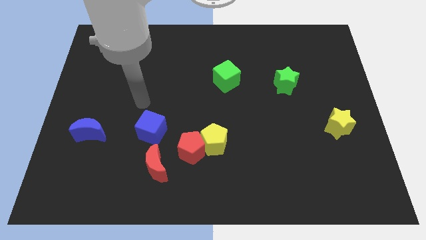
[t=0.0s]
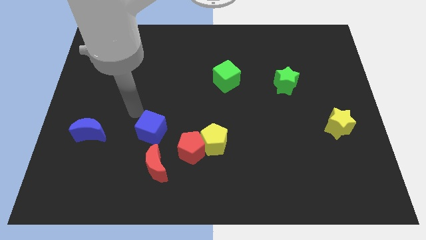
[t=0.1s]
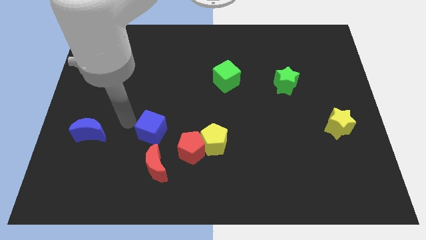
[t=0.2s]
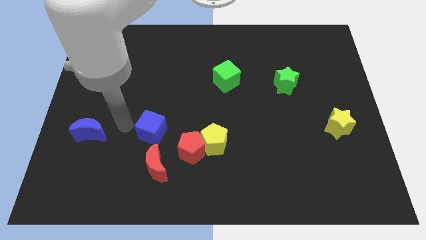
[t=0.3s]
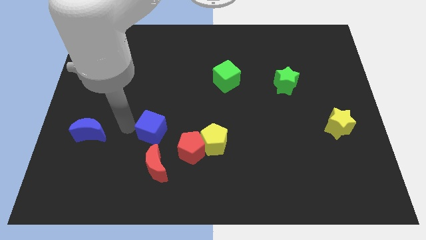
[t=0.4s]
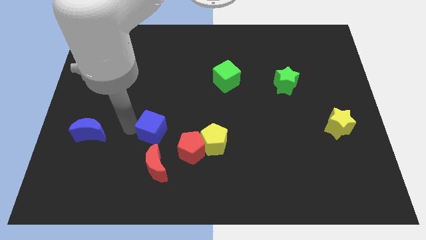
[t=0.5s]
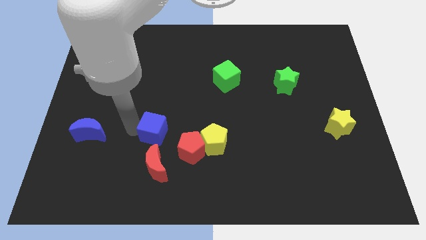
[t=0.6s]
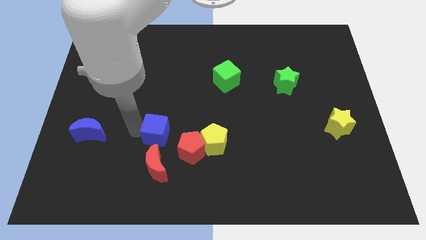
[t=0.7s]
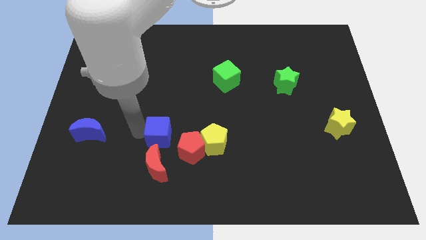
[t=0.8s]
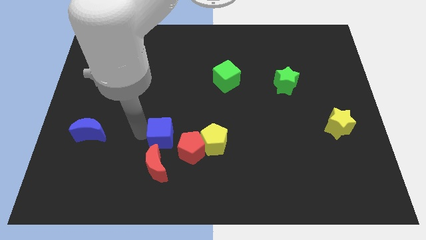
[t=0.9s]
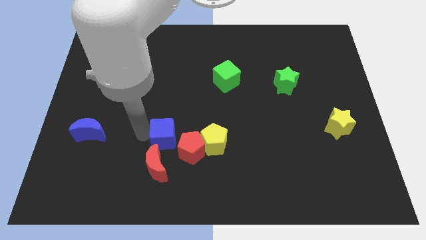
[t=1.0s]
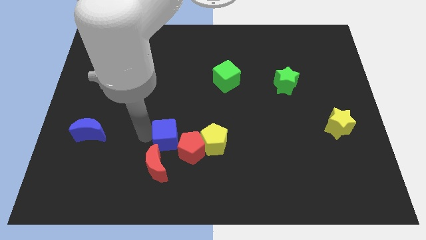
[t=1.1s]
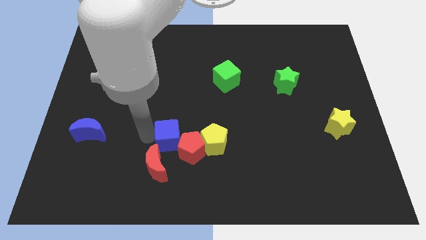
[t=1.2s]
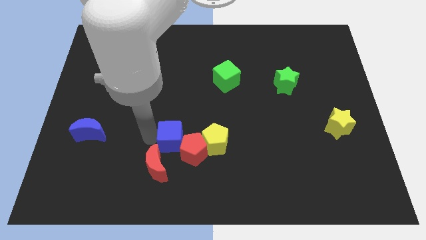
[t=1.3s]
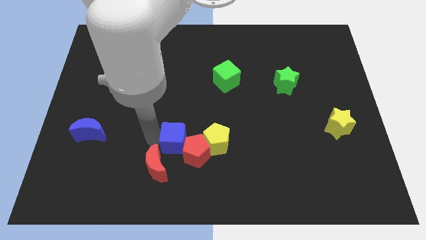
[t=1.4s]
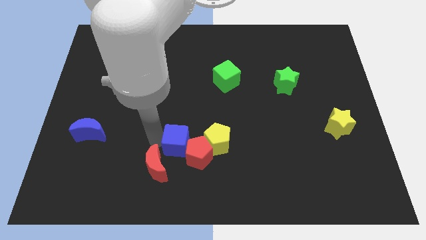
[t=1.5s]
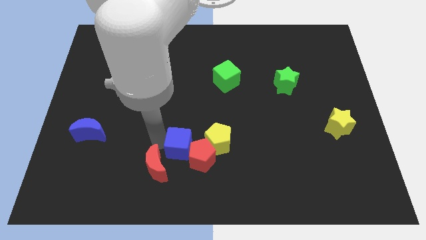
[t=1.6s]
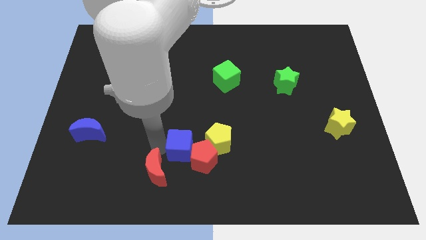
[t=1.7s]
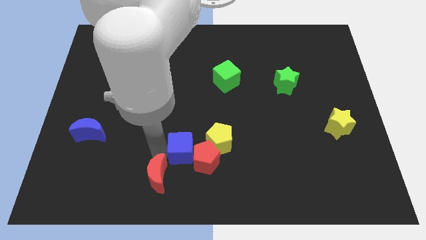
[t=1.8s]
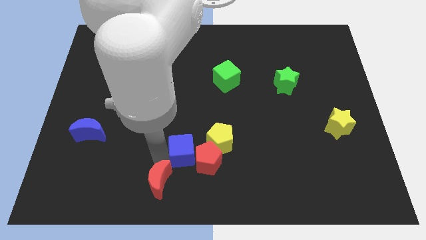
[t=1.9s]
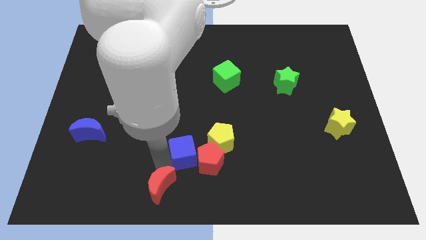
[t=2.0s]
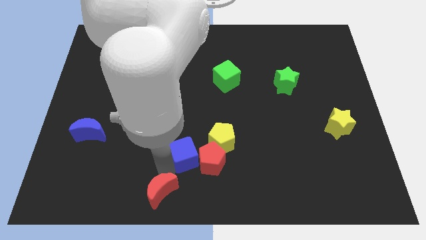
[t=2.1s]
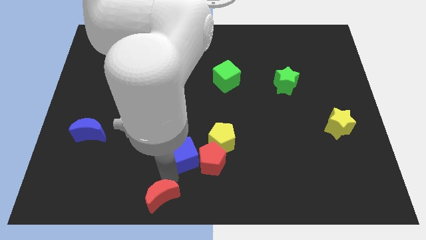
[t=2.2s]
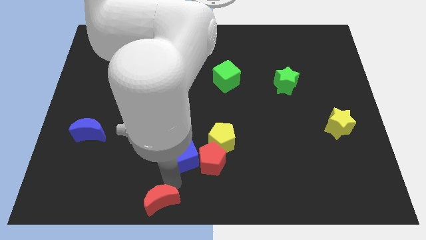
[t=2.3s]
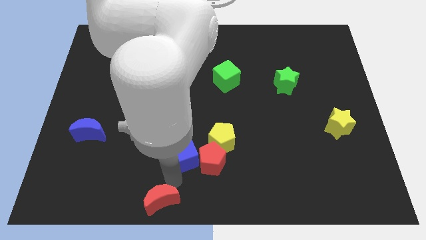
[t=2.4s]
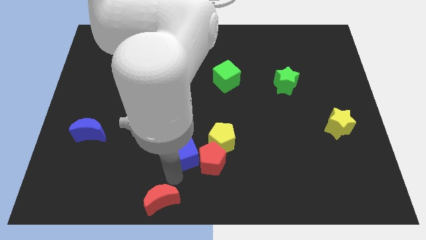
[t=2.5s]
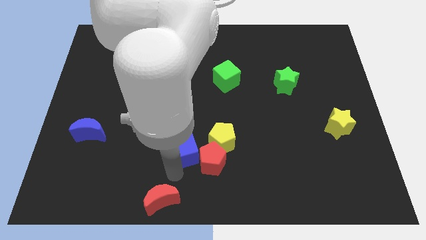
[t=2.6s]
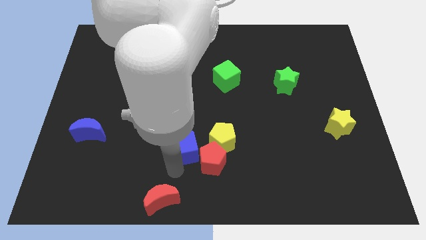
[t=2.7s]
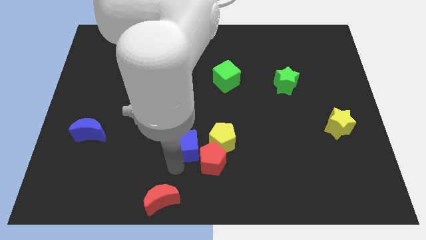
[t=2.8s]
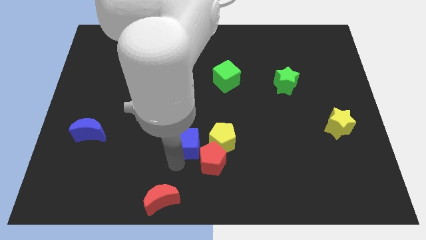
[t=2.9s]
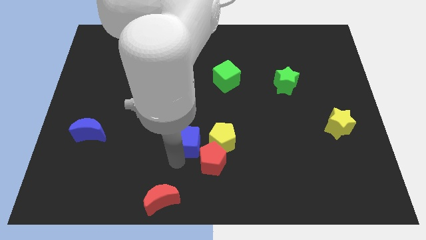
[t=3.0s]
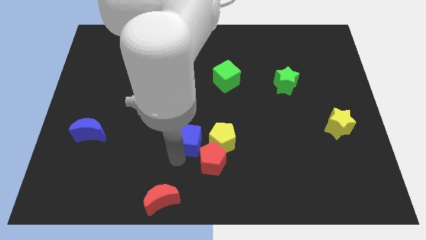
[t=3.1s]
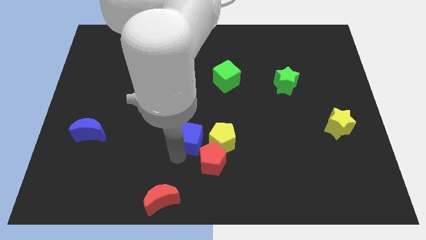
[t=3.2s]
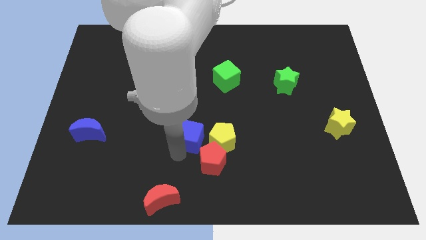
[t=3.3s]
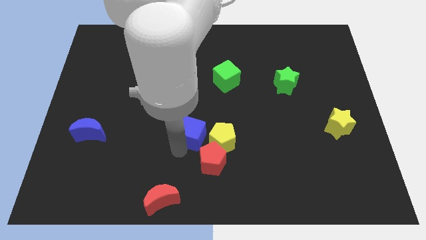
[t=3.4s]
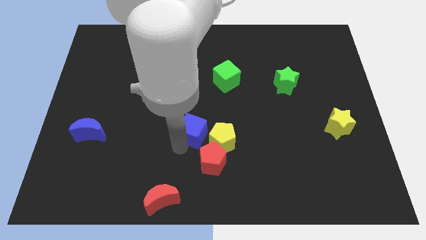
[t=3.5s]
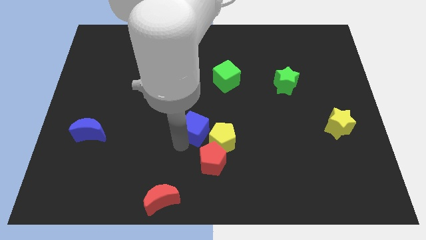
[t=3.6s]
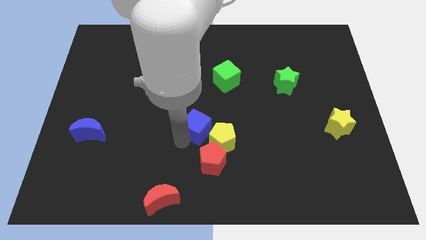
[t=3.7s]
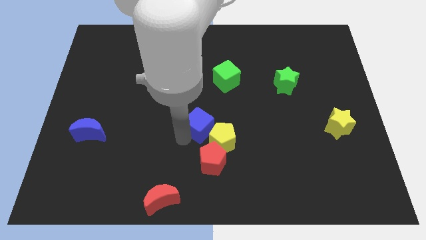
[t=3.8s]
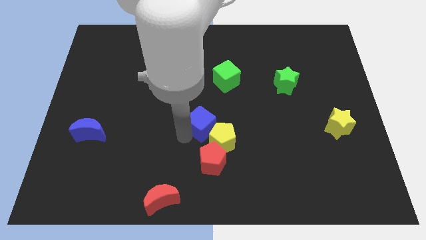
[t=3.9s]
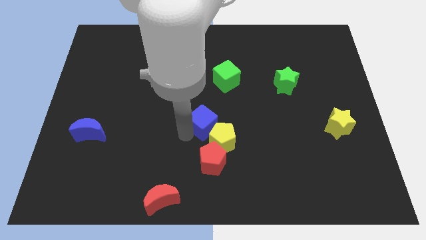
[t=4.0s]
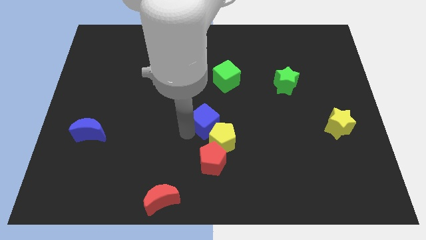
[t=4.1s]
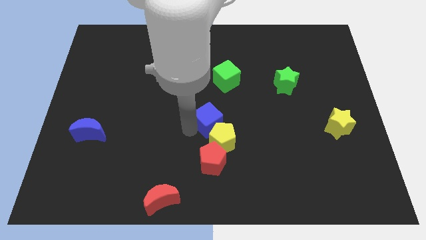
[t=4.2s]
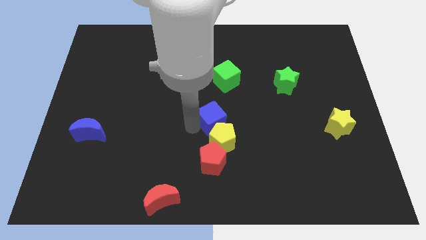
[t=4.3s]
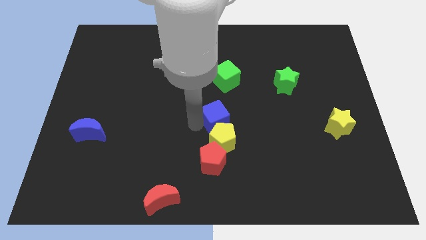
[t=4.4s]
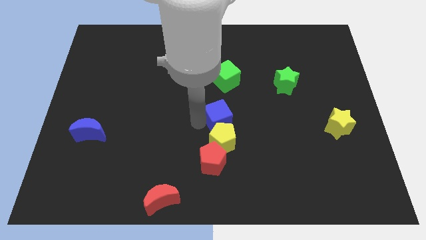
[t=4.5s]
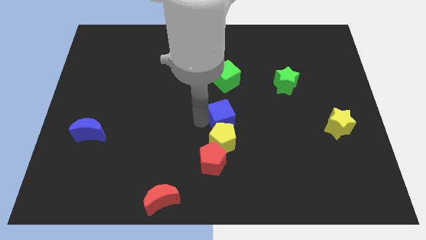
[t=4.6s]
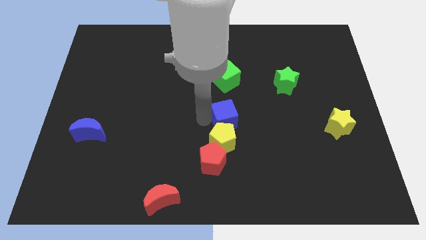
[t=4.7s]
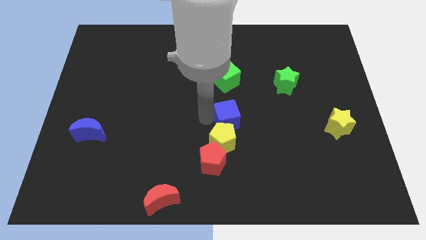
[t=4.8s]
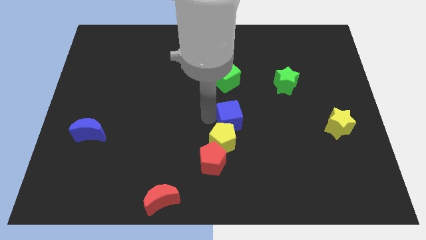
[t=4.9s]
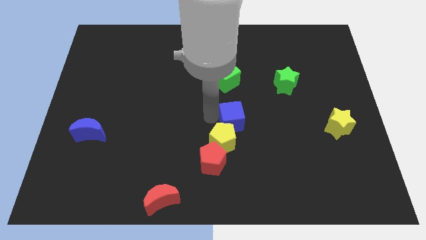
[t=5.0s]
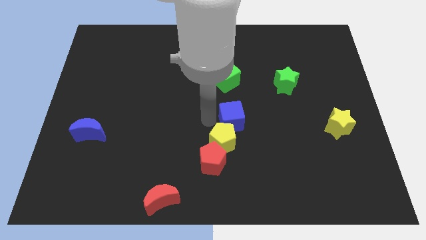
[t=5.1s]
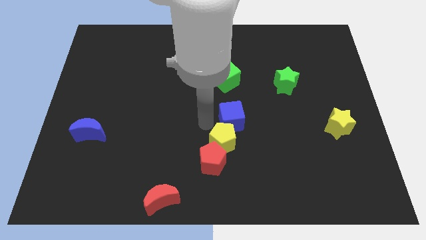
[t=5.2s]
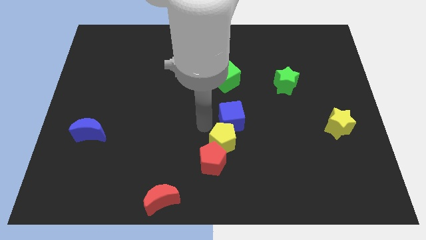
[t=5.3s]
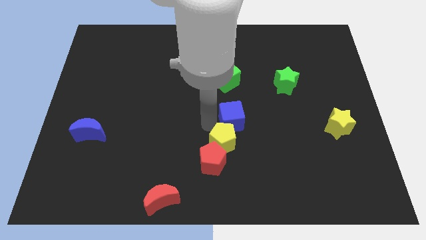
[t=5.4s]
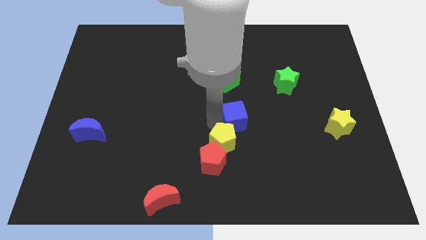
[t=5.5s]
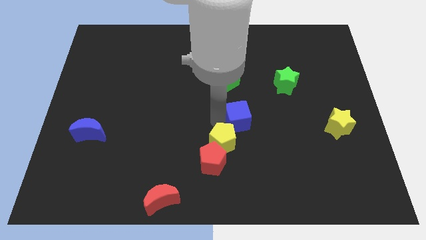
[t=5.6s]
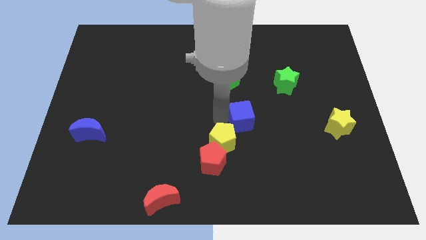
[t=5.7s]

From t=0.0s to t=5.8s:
slide the blue cube right

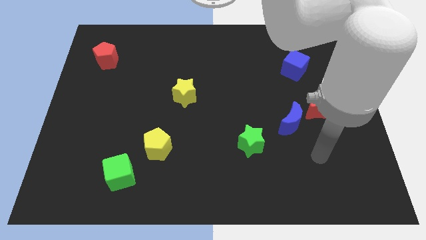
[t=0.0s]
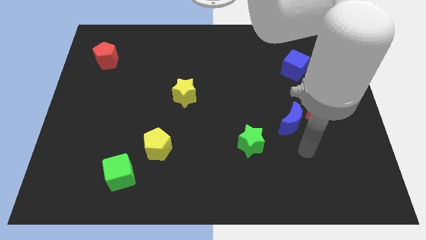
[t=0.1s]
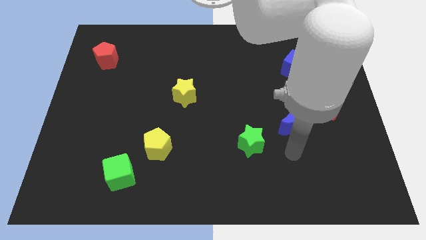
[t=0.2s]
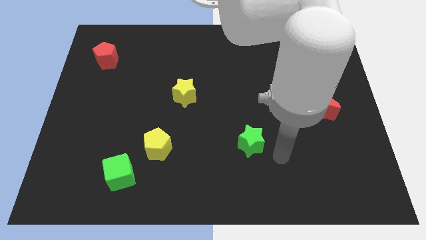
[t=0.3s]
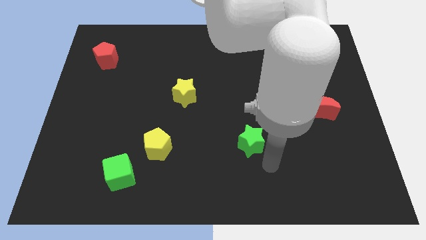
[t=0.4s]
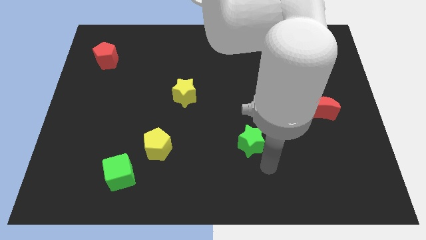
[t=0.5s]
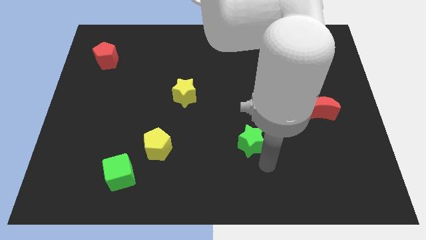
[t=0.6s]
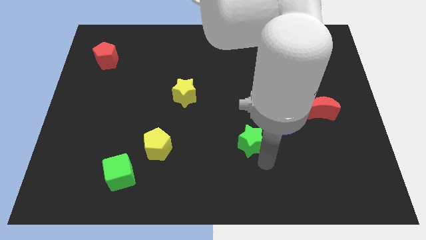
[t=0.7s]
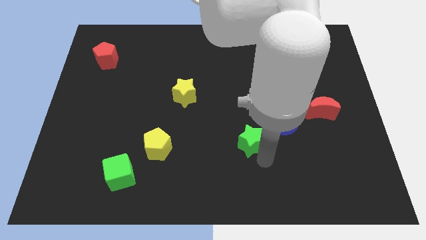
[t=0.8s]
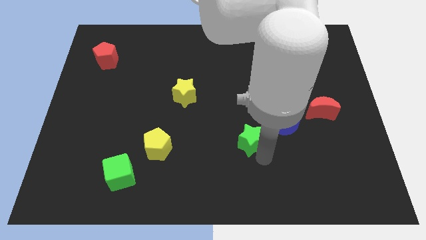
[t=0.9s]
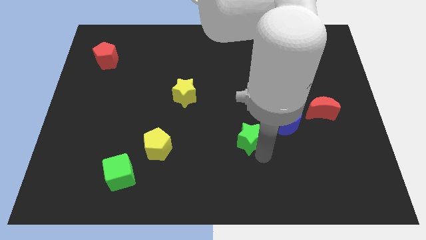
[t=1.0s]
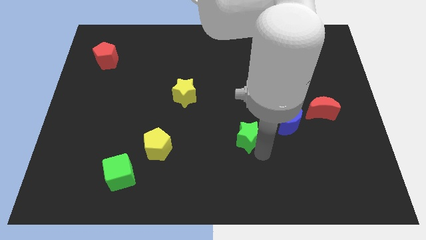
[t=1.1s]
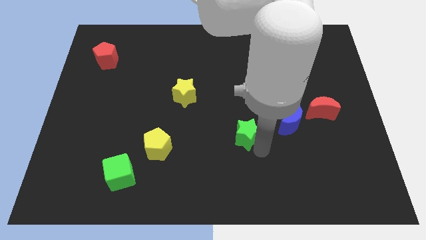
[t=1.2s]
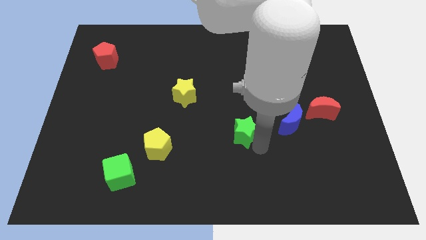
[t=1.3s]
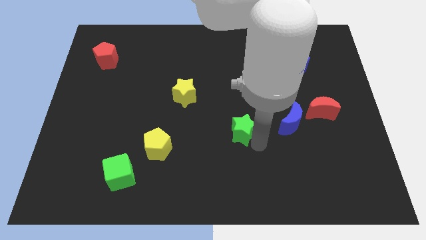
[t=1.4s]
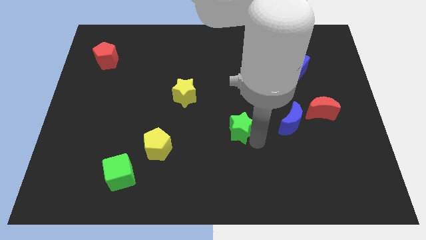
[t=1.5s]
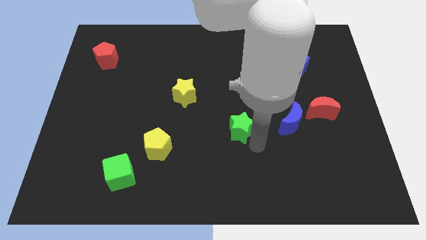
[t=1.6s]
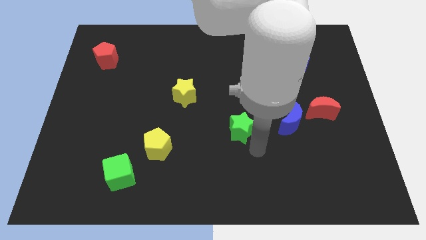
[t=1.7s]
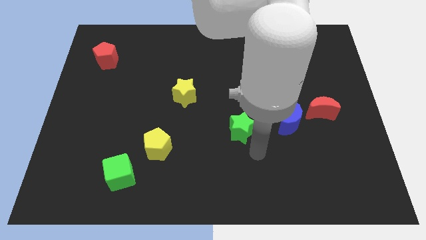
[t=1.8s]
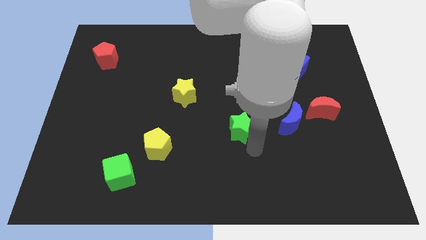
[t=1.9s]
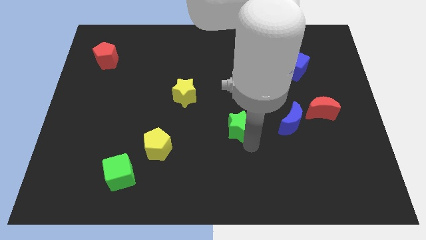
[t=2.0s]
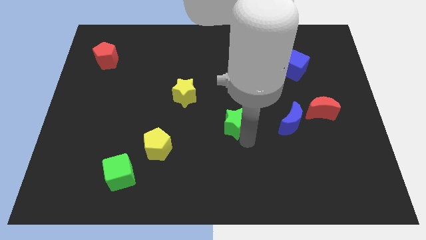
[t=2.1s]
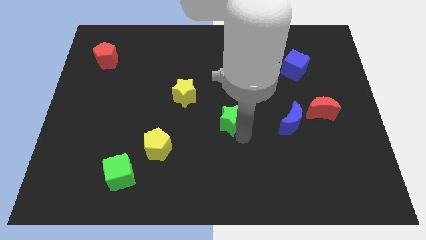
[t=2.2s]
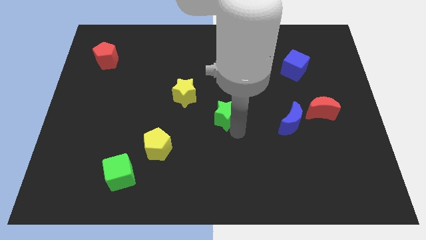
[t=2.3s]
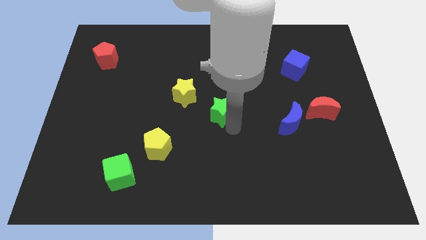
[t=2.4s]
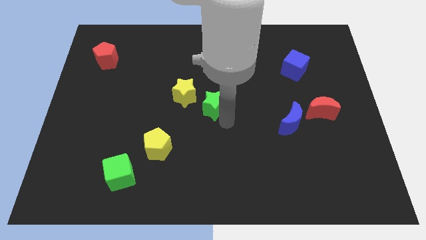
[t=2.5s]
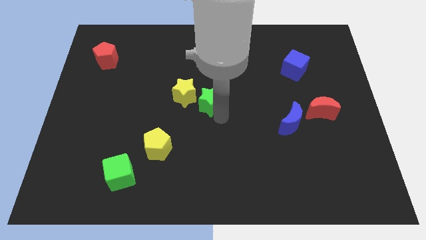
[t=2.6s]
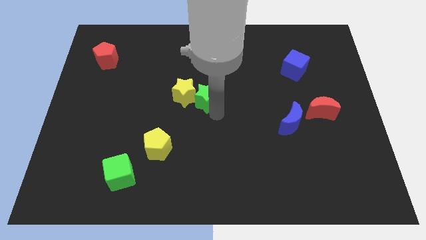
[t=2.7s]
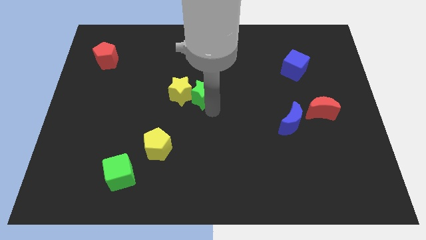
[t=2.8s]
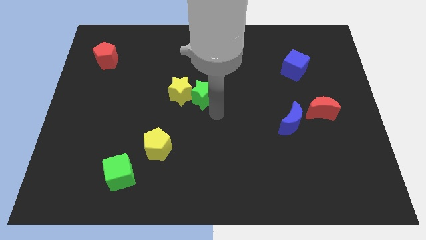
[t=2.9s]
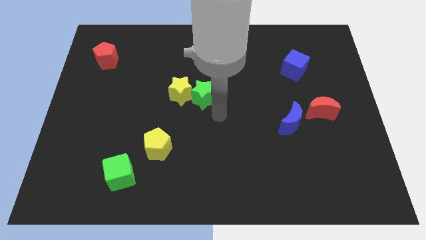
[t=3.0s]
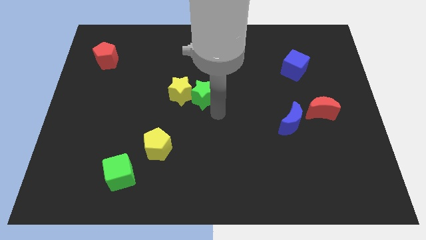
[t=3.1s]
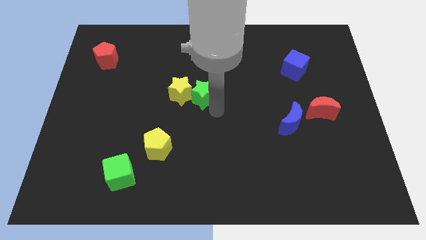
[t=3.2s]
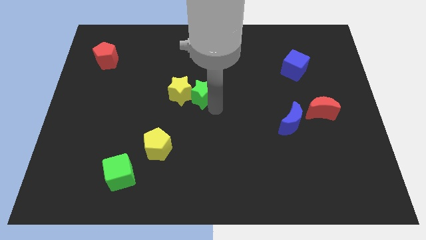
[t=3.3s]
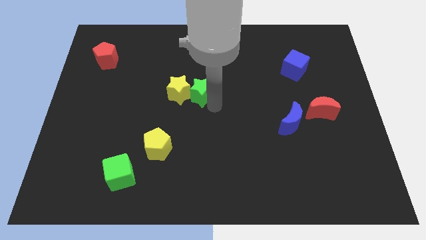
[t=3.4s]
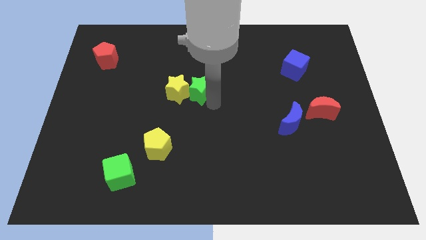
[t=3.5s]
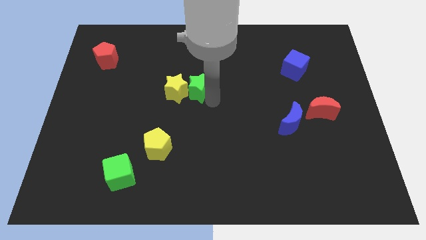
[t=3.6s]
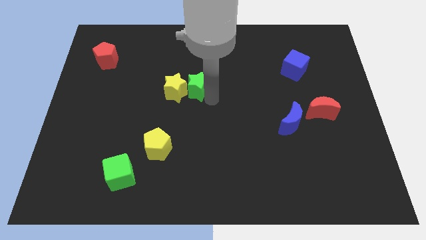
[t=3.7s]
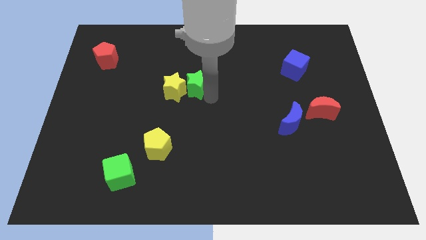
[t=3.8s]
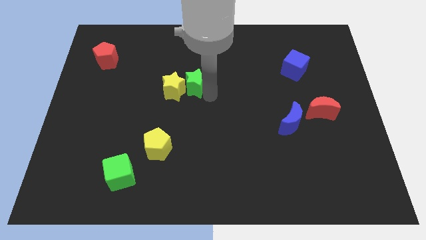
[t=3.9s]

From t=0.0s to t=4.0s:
move the green star upwards and then to the left
